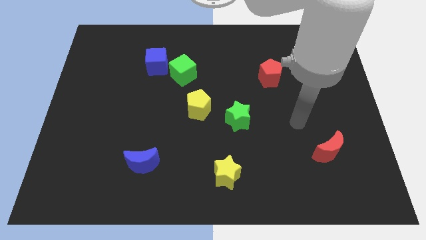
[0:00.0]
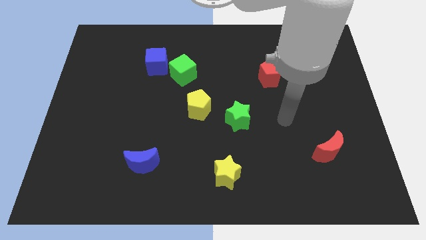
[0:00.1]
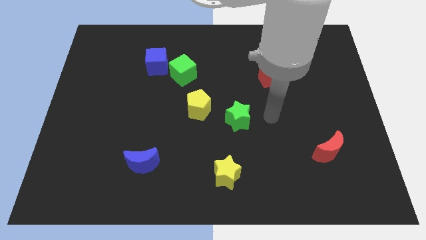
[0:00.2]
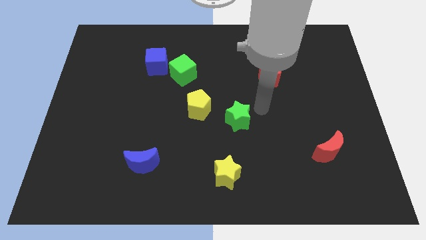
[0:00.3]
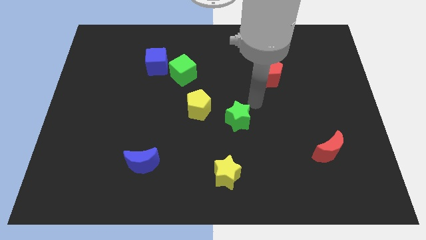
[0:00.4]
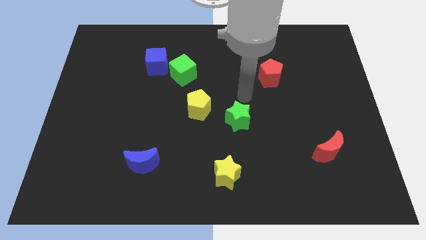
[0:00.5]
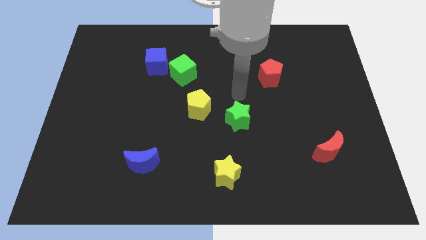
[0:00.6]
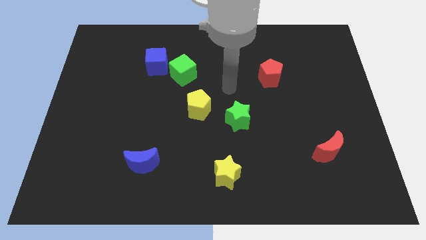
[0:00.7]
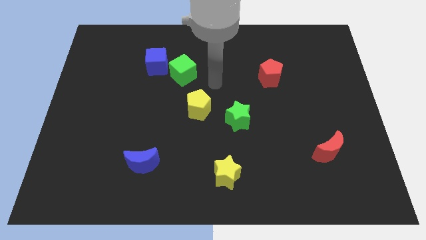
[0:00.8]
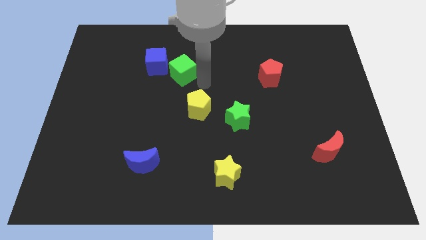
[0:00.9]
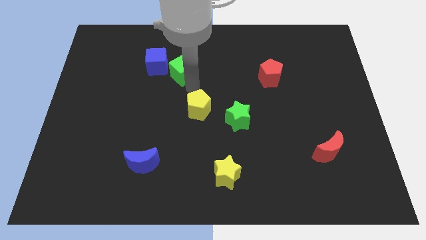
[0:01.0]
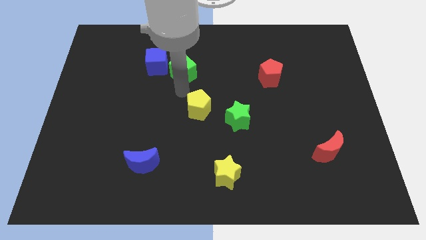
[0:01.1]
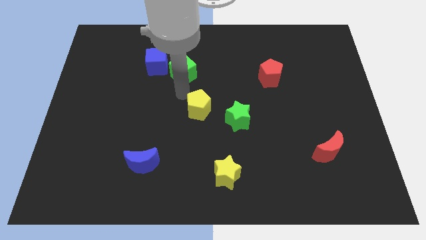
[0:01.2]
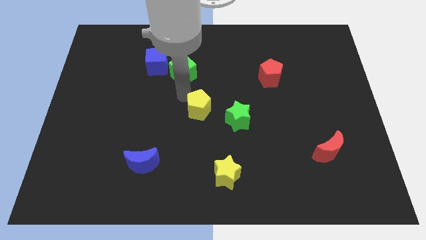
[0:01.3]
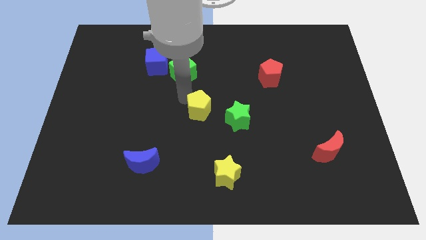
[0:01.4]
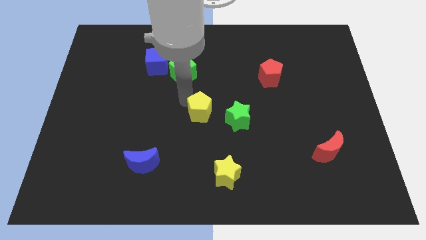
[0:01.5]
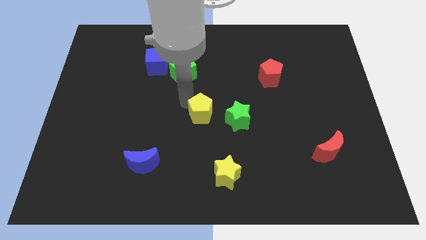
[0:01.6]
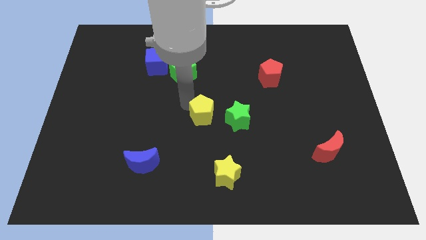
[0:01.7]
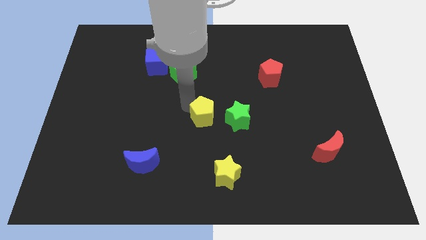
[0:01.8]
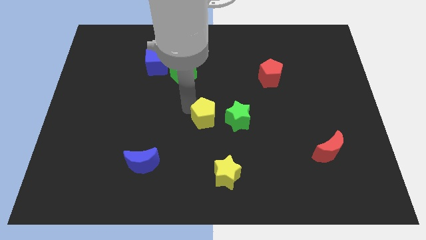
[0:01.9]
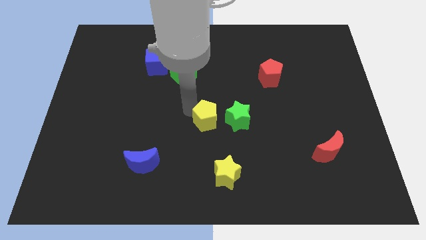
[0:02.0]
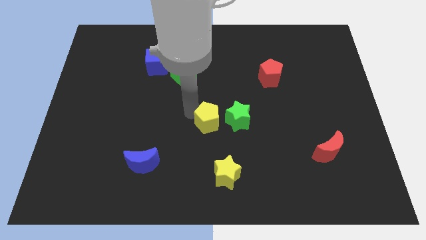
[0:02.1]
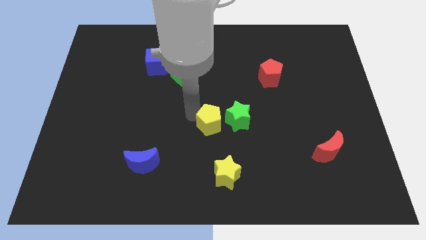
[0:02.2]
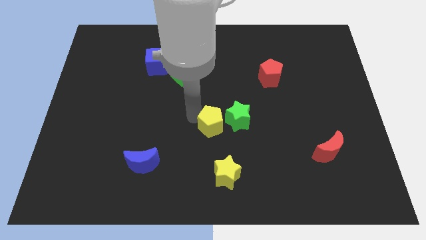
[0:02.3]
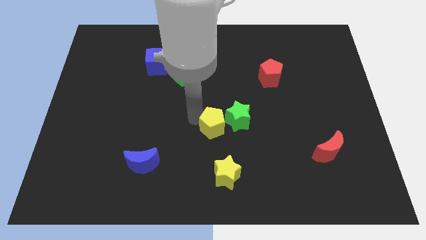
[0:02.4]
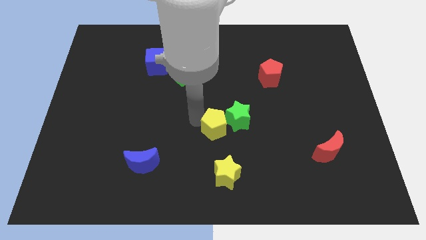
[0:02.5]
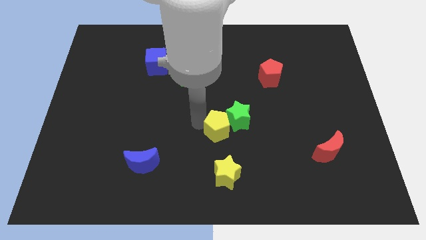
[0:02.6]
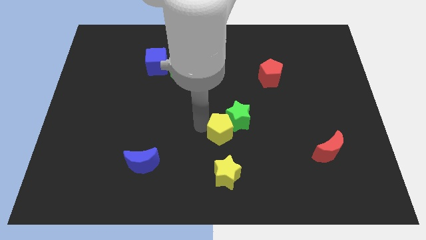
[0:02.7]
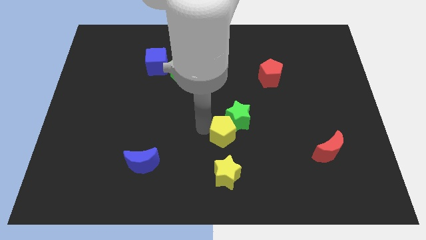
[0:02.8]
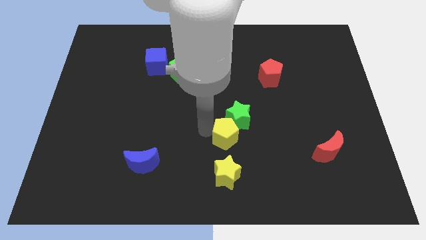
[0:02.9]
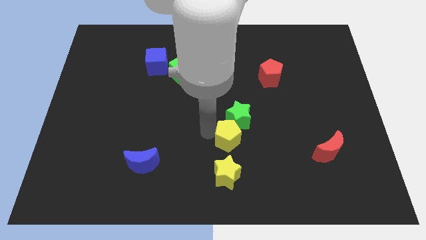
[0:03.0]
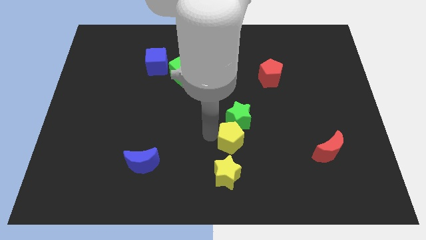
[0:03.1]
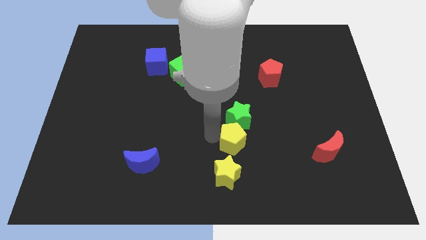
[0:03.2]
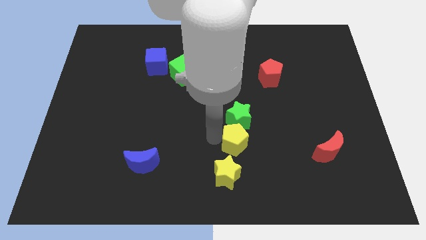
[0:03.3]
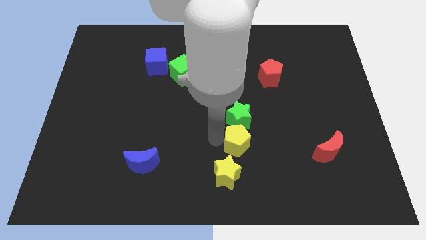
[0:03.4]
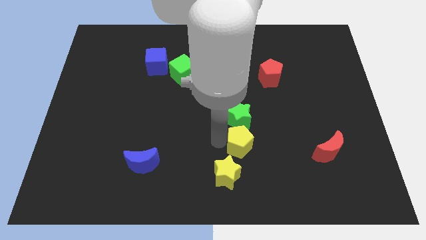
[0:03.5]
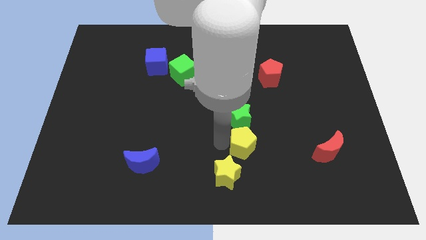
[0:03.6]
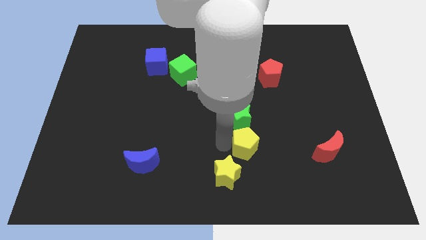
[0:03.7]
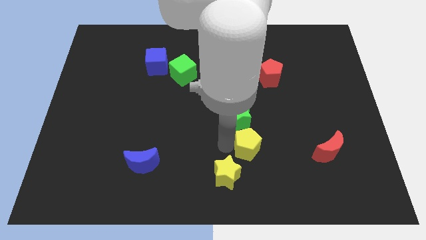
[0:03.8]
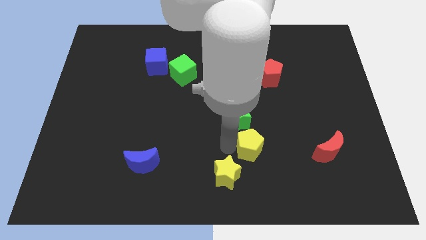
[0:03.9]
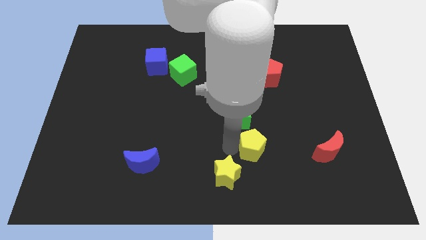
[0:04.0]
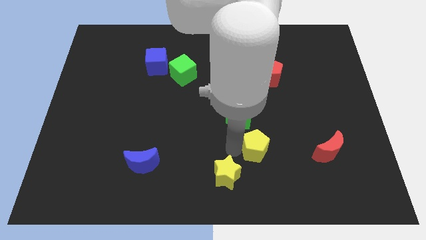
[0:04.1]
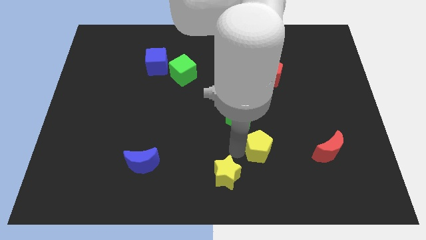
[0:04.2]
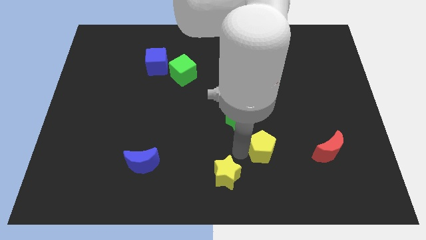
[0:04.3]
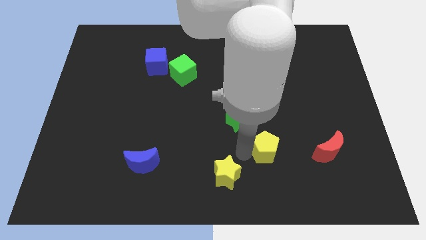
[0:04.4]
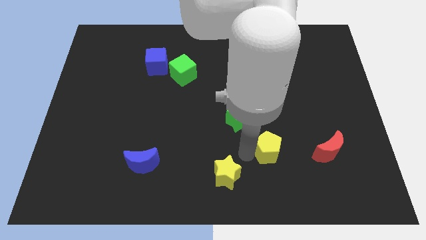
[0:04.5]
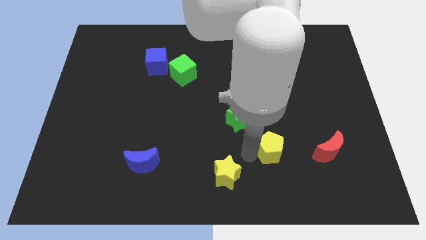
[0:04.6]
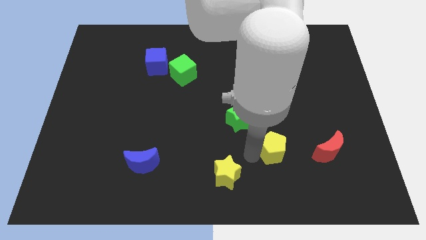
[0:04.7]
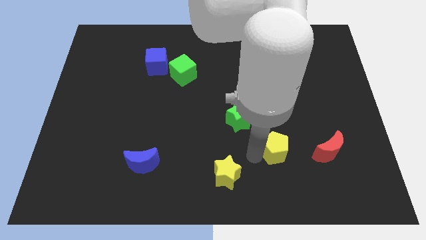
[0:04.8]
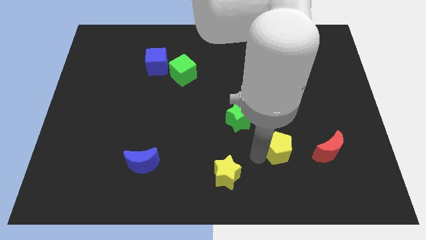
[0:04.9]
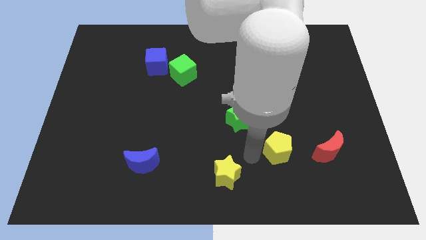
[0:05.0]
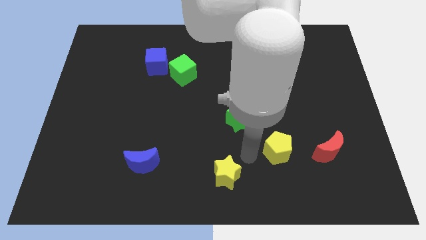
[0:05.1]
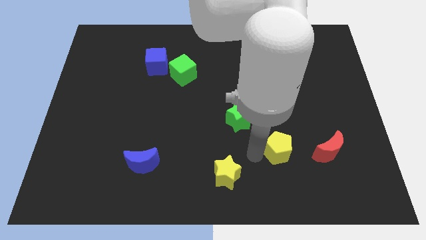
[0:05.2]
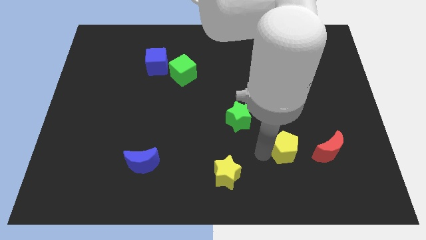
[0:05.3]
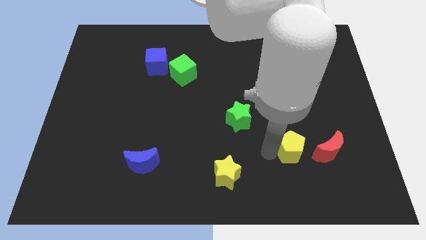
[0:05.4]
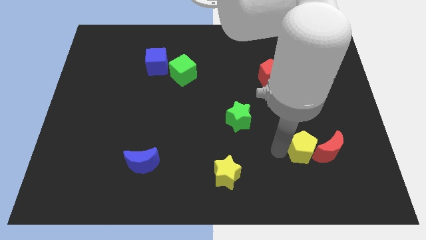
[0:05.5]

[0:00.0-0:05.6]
slide the yellow pentagon close to the red moon

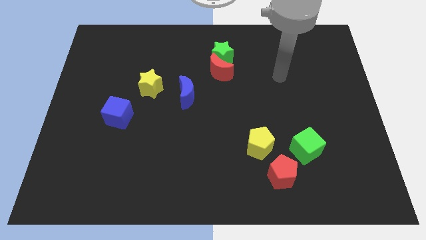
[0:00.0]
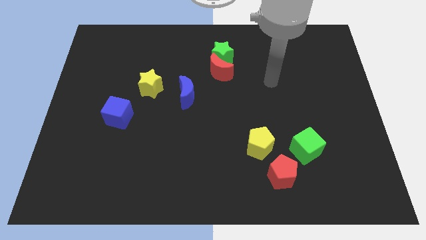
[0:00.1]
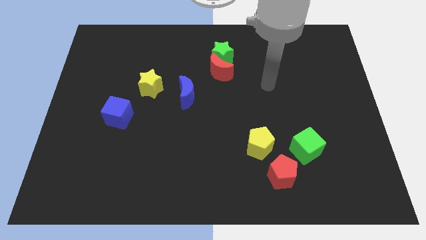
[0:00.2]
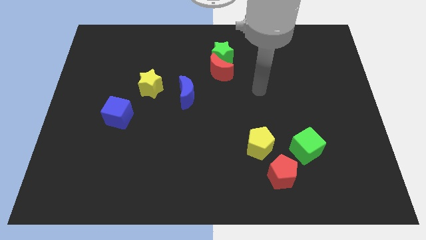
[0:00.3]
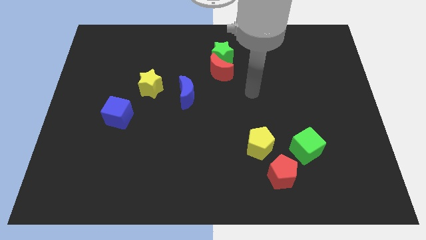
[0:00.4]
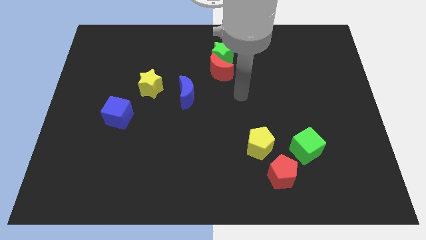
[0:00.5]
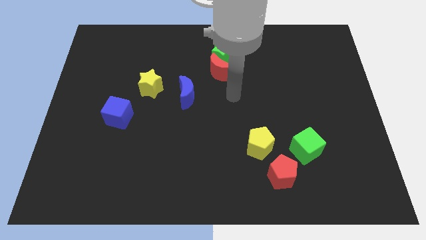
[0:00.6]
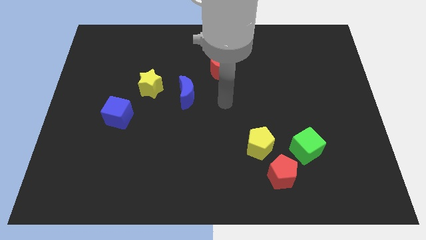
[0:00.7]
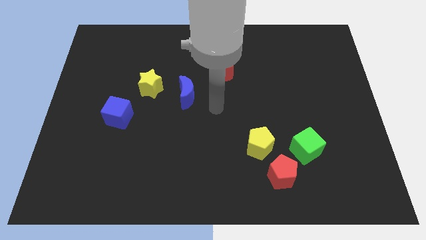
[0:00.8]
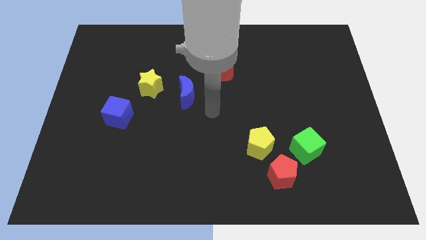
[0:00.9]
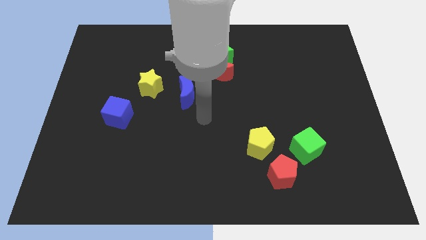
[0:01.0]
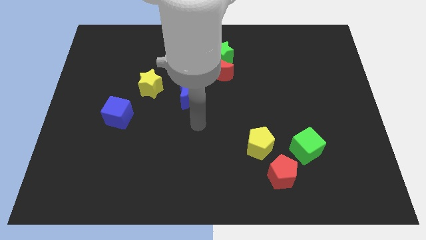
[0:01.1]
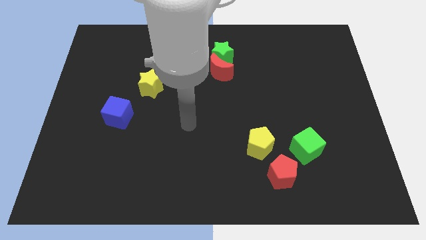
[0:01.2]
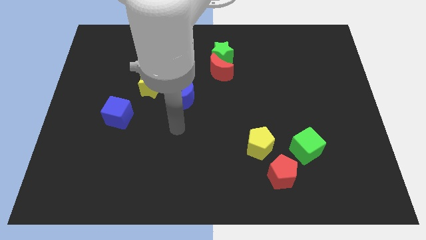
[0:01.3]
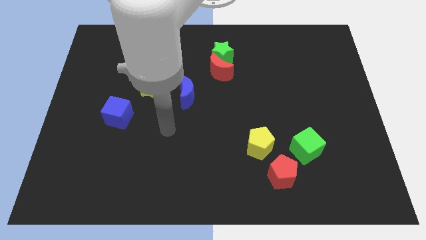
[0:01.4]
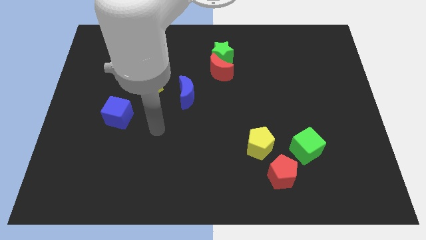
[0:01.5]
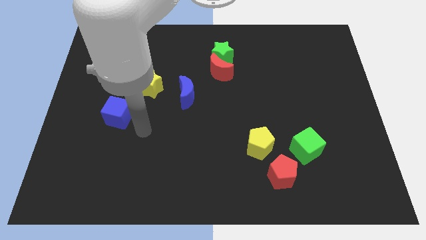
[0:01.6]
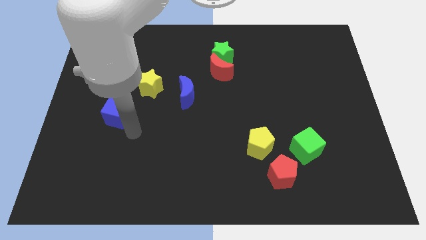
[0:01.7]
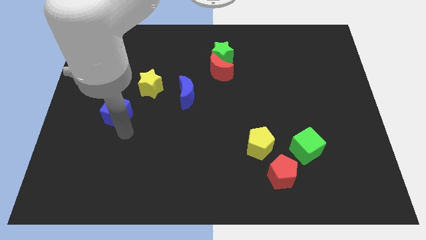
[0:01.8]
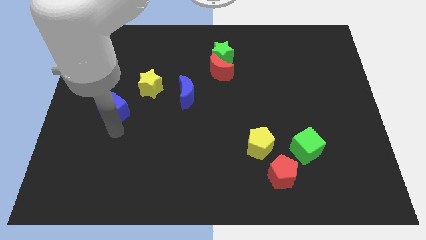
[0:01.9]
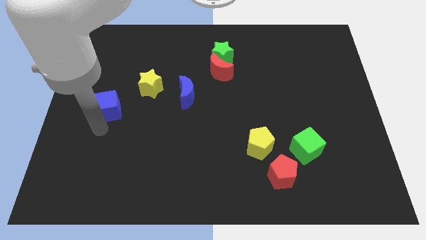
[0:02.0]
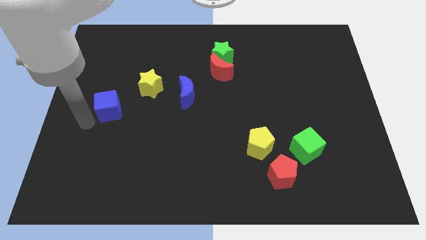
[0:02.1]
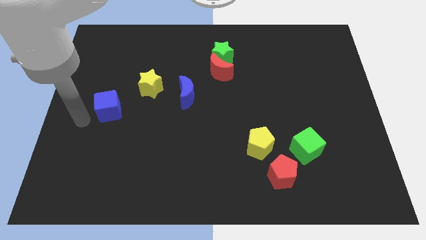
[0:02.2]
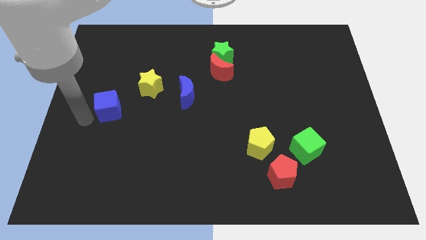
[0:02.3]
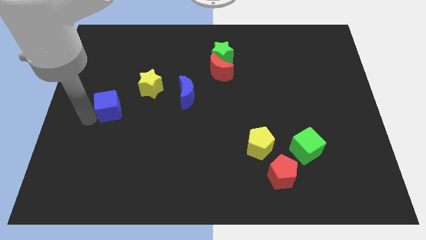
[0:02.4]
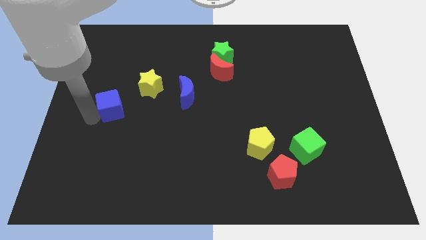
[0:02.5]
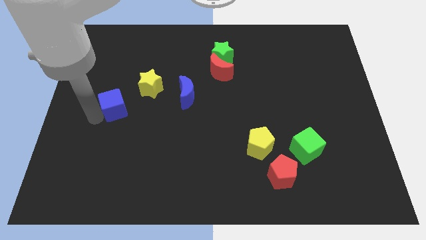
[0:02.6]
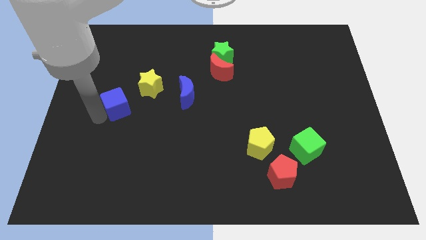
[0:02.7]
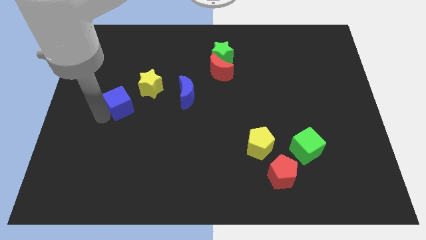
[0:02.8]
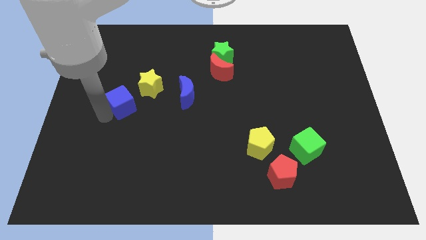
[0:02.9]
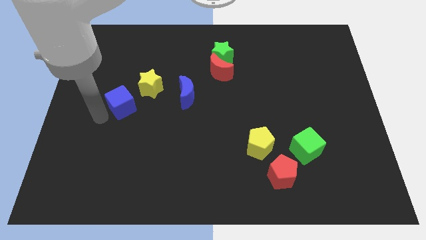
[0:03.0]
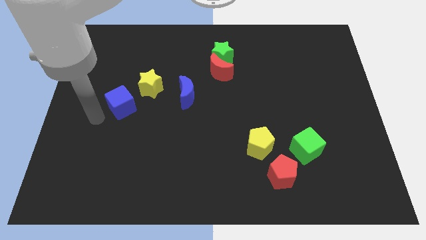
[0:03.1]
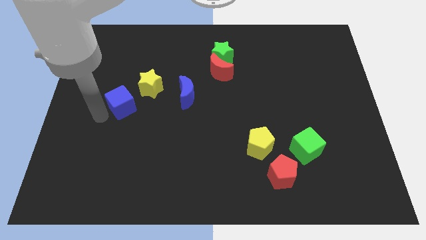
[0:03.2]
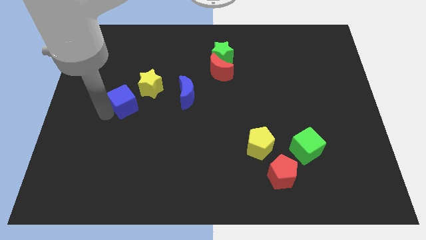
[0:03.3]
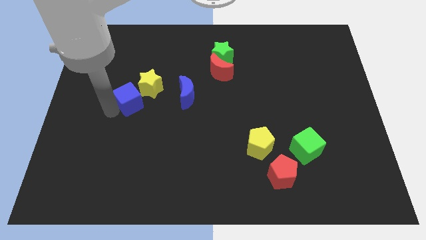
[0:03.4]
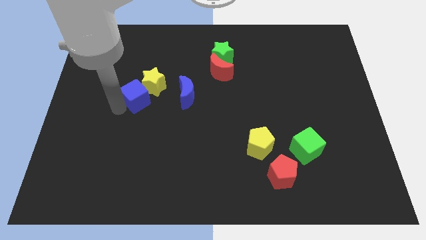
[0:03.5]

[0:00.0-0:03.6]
push the blue cube close to the yellow star
